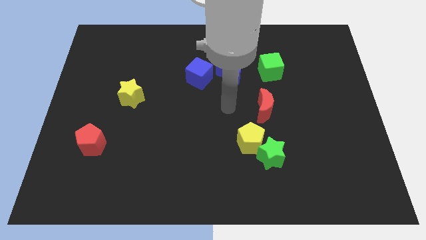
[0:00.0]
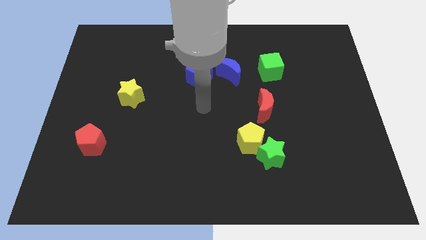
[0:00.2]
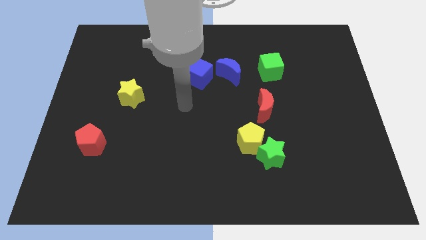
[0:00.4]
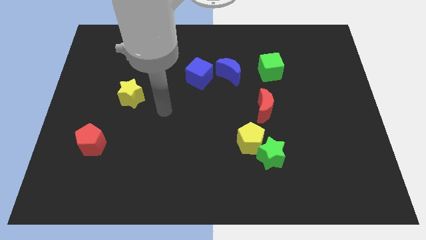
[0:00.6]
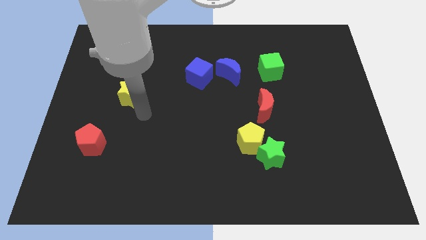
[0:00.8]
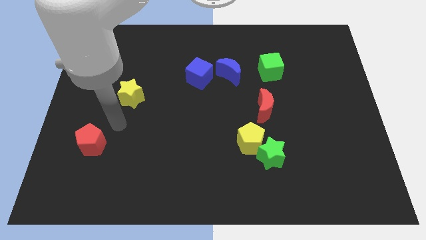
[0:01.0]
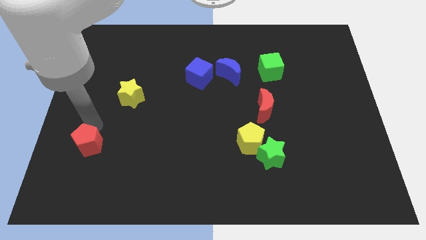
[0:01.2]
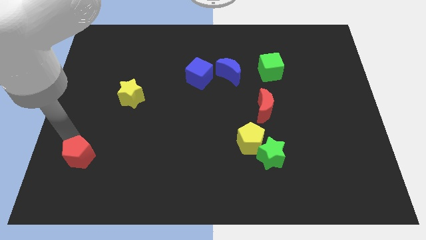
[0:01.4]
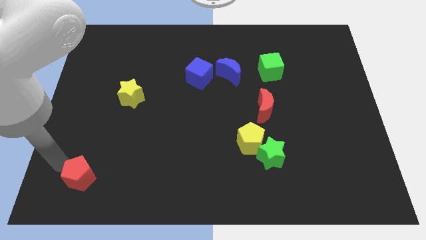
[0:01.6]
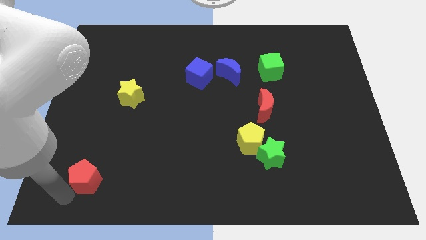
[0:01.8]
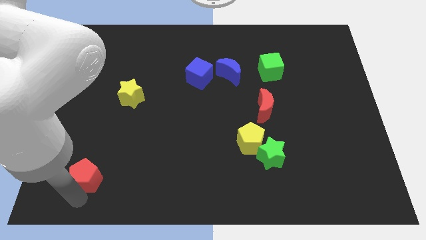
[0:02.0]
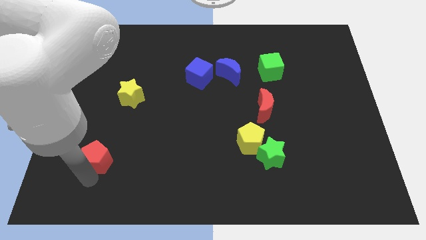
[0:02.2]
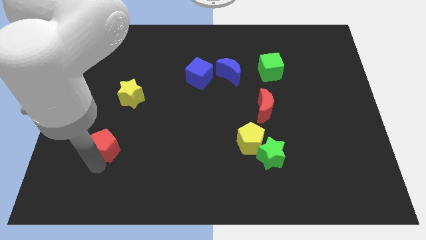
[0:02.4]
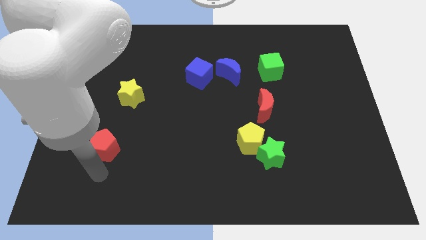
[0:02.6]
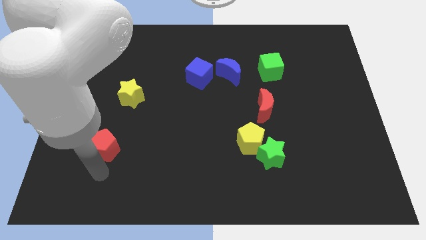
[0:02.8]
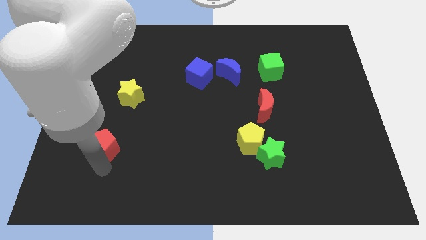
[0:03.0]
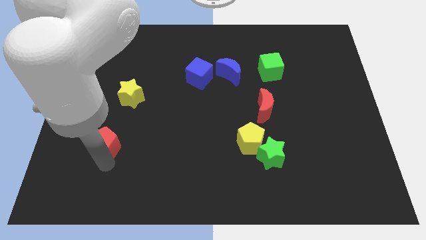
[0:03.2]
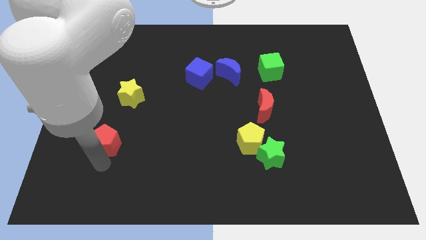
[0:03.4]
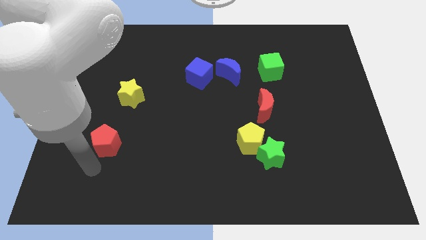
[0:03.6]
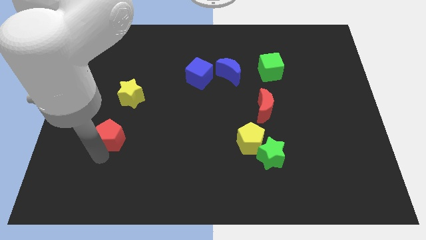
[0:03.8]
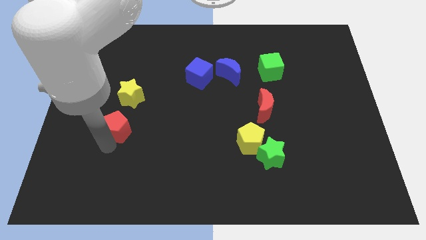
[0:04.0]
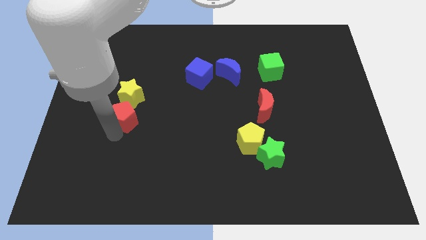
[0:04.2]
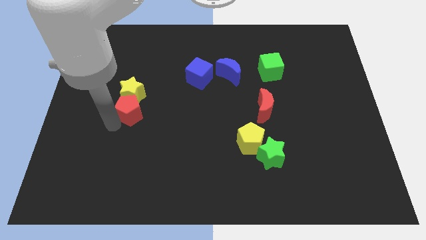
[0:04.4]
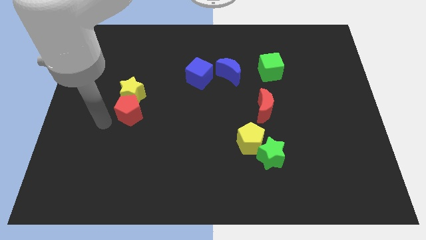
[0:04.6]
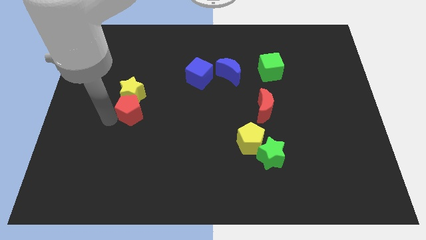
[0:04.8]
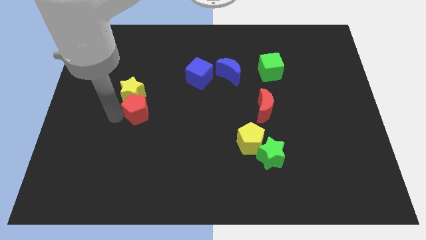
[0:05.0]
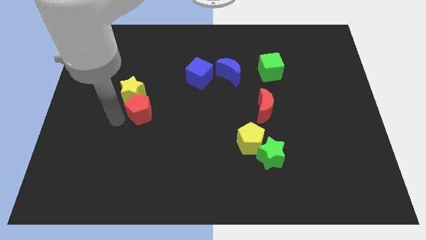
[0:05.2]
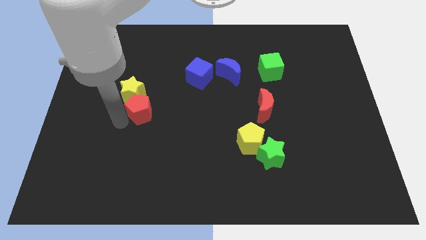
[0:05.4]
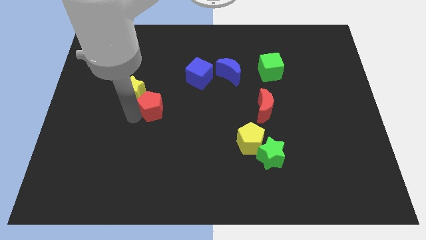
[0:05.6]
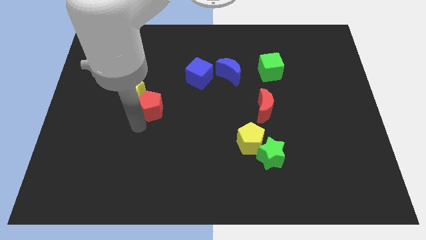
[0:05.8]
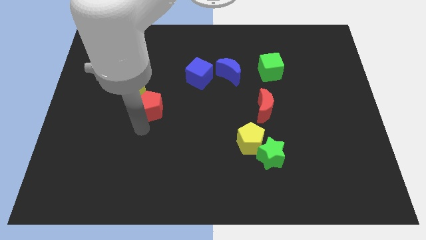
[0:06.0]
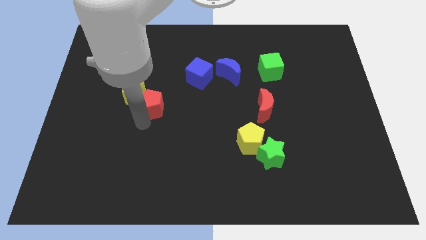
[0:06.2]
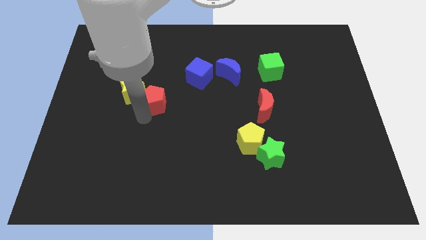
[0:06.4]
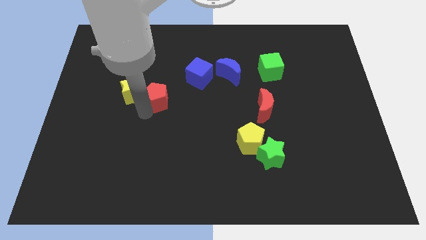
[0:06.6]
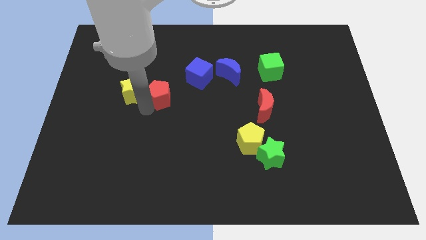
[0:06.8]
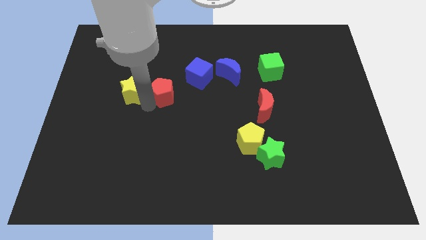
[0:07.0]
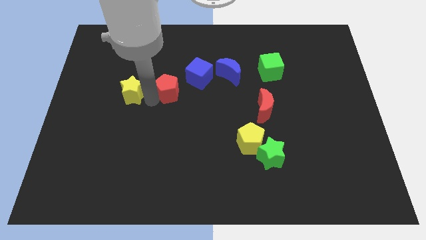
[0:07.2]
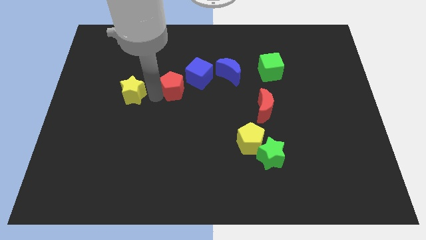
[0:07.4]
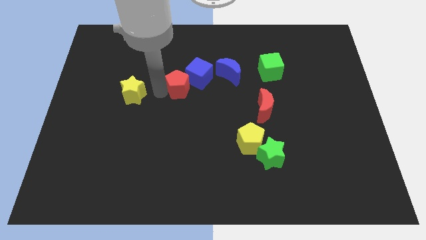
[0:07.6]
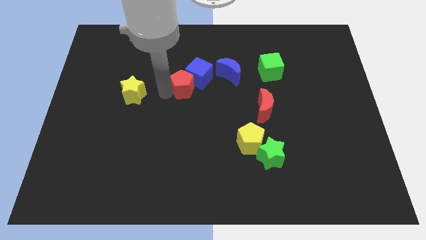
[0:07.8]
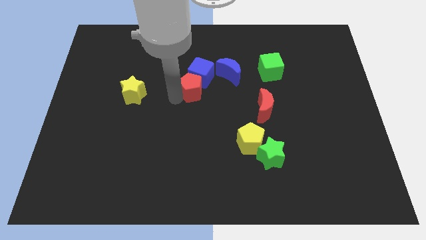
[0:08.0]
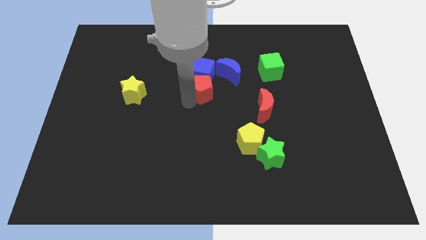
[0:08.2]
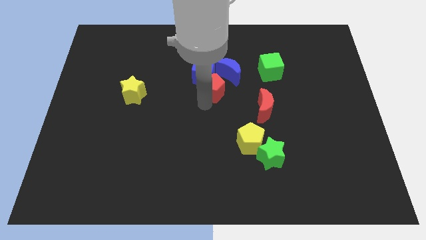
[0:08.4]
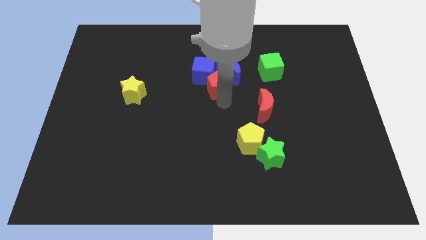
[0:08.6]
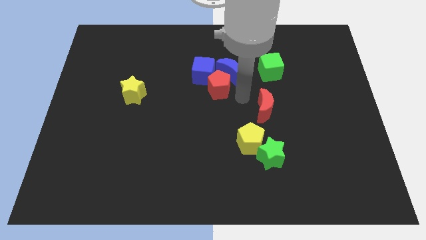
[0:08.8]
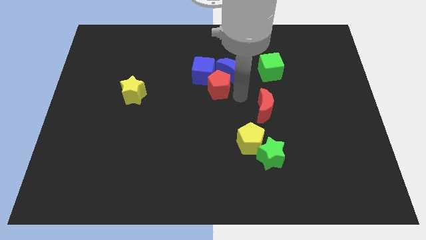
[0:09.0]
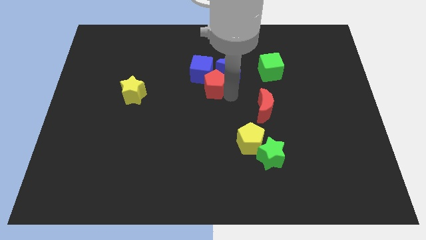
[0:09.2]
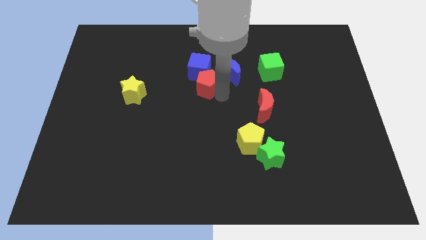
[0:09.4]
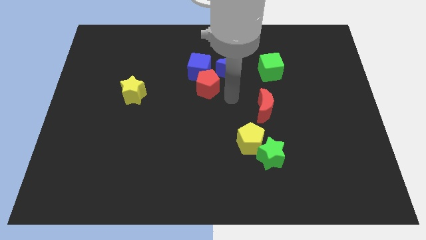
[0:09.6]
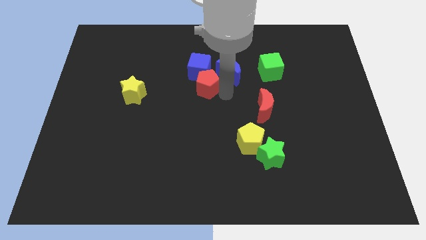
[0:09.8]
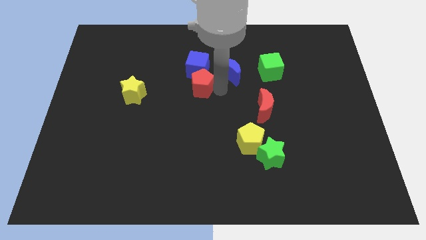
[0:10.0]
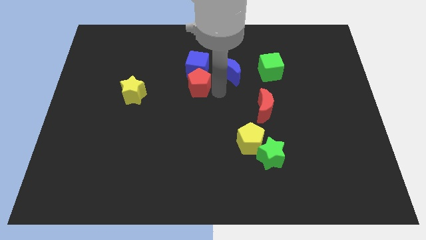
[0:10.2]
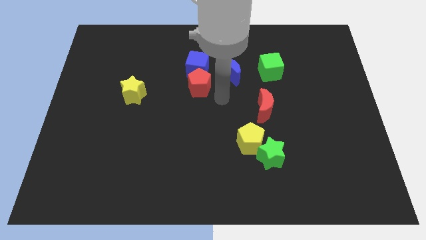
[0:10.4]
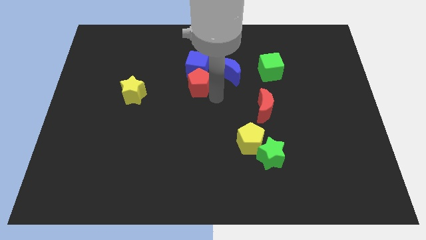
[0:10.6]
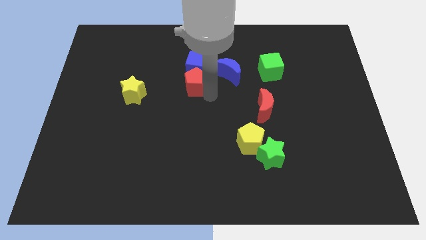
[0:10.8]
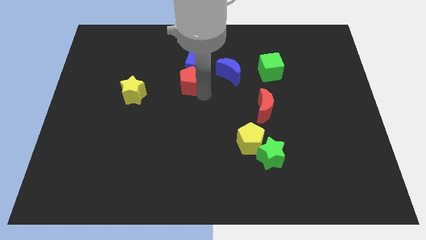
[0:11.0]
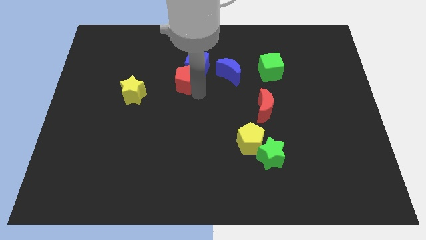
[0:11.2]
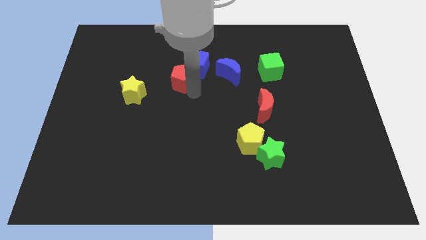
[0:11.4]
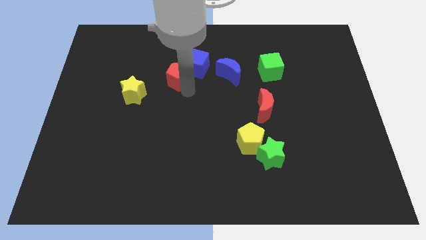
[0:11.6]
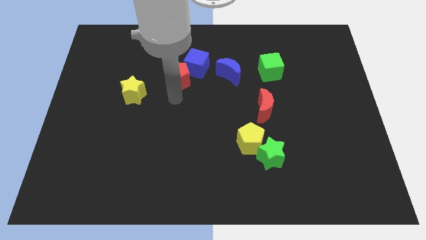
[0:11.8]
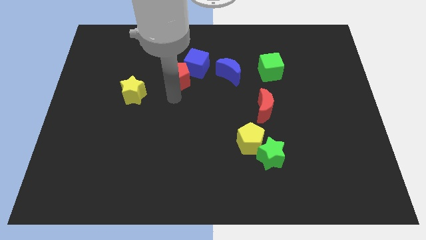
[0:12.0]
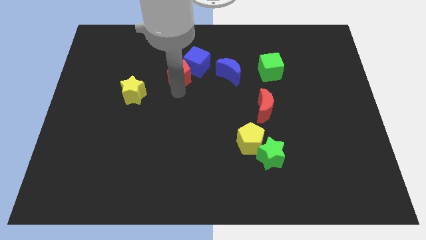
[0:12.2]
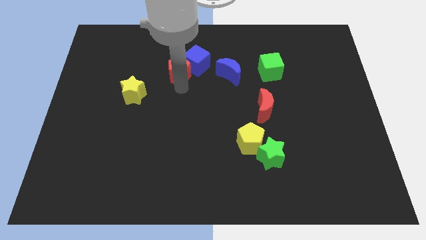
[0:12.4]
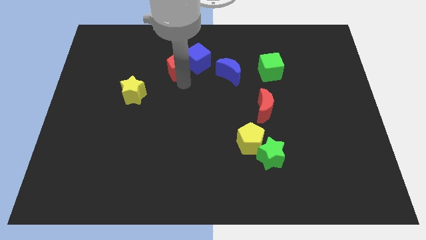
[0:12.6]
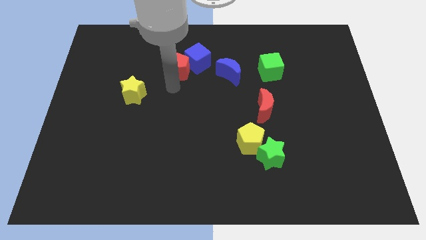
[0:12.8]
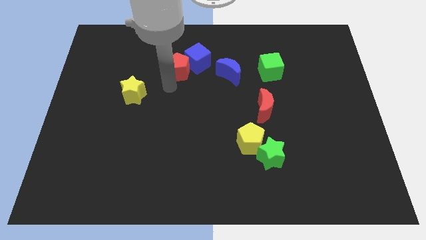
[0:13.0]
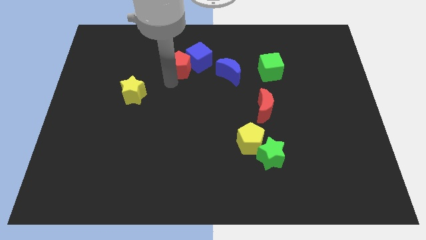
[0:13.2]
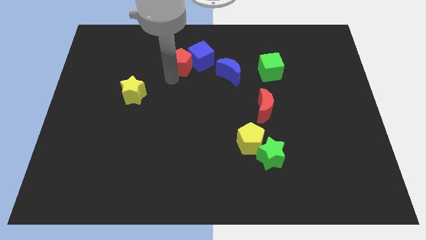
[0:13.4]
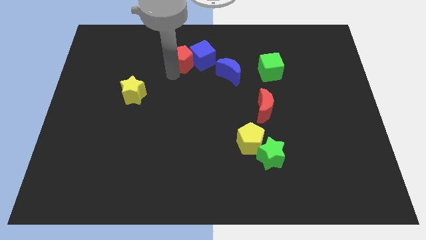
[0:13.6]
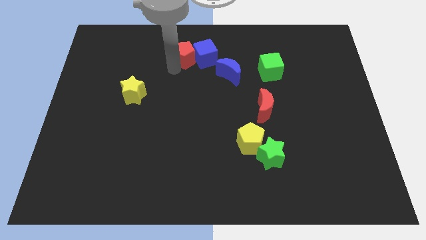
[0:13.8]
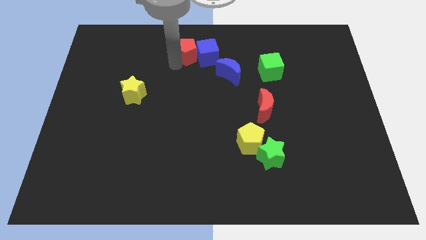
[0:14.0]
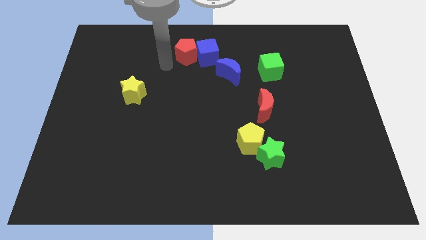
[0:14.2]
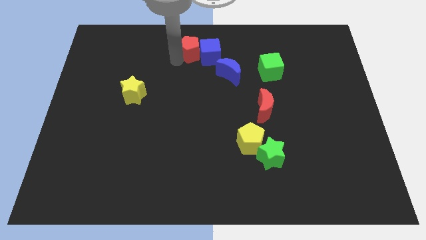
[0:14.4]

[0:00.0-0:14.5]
slide the red pentagon to the top side

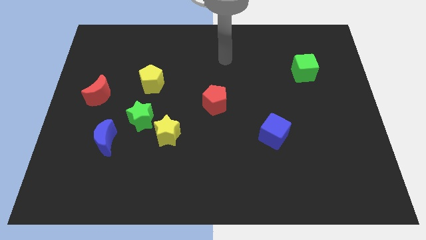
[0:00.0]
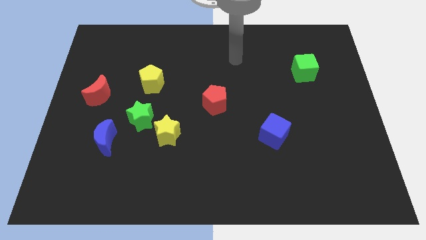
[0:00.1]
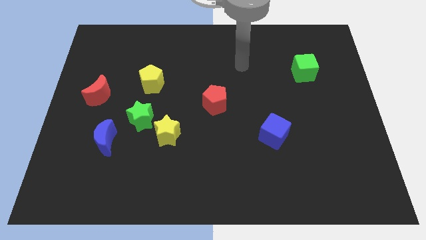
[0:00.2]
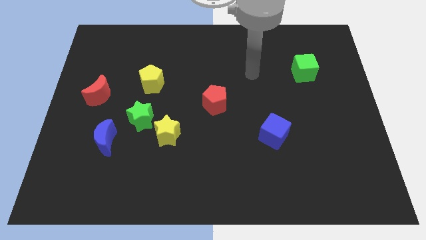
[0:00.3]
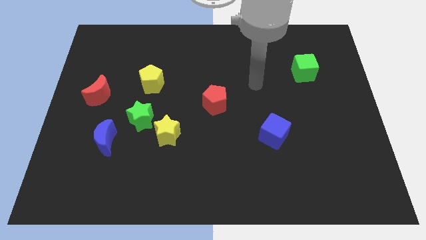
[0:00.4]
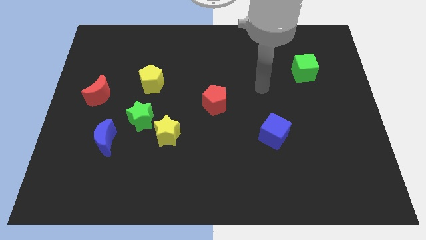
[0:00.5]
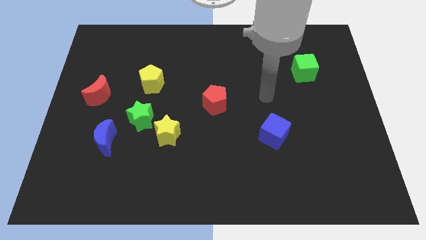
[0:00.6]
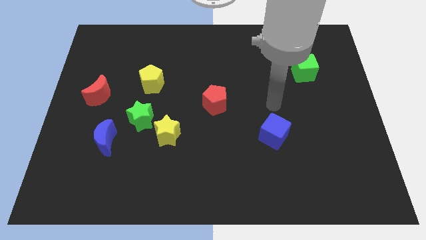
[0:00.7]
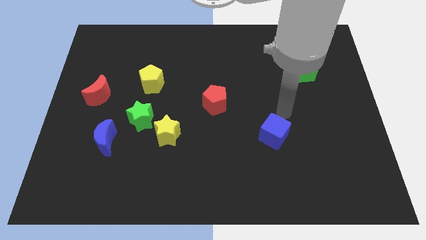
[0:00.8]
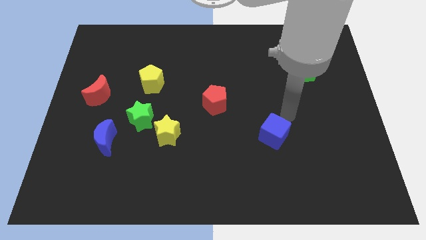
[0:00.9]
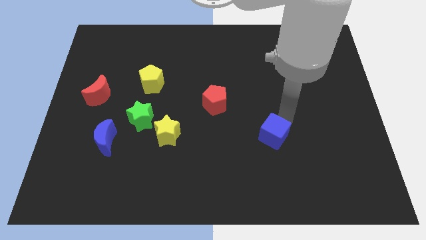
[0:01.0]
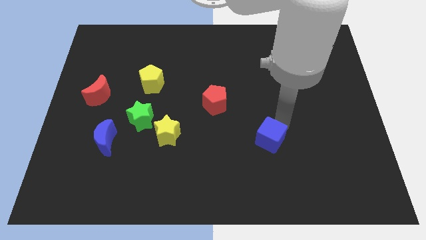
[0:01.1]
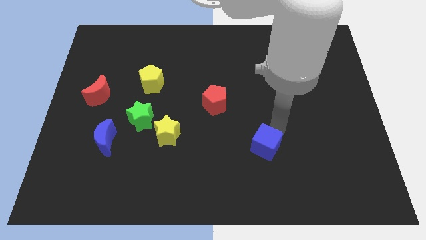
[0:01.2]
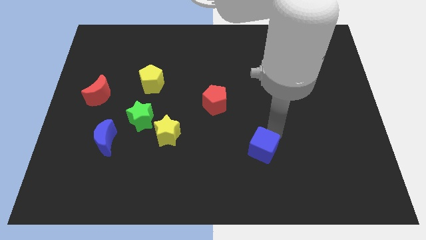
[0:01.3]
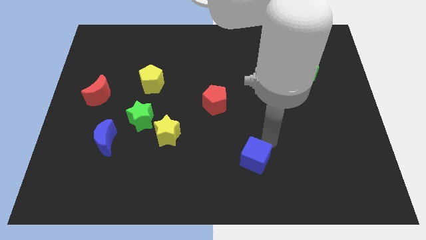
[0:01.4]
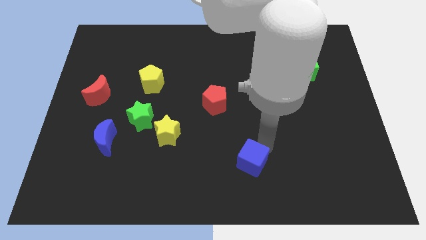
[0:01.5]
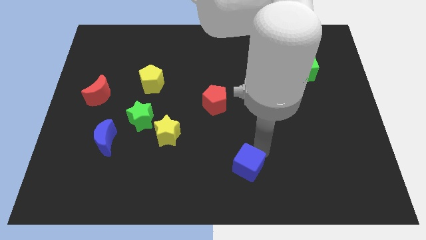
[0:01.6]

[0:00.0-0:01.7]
push the blue cube to the bottom
